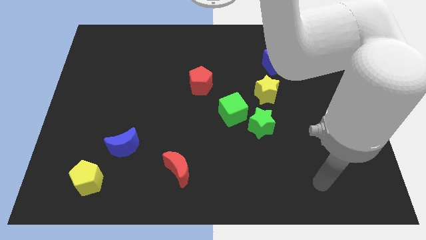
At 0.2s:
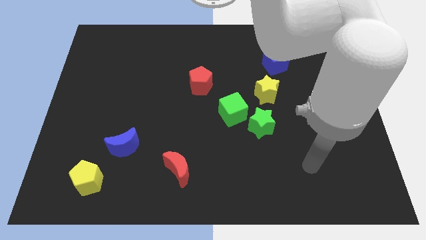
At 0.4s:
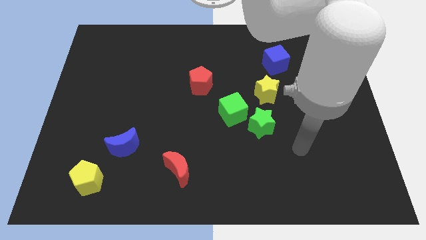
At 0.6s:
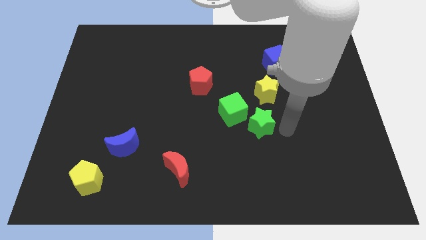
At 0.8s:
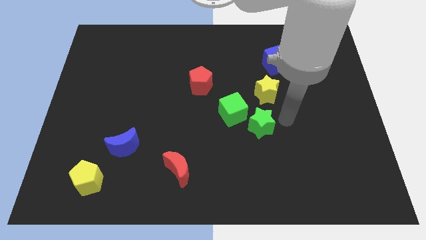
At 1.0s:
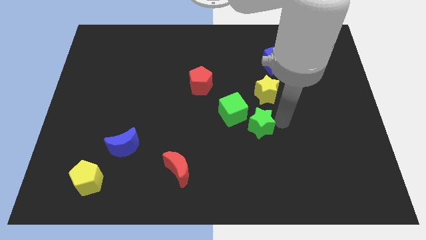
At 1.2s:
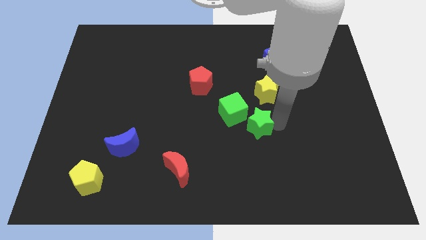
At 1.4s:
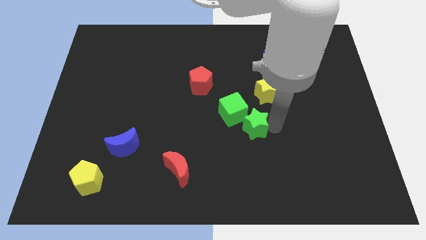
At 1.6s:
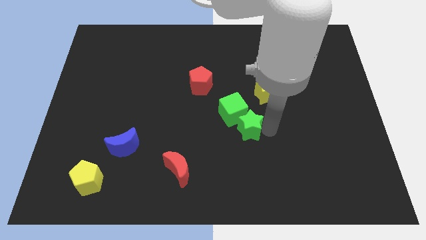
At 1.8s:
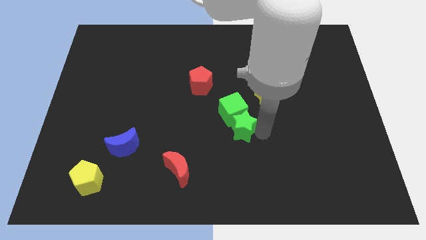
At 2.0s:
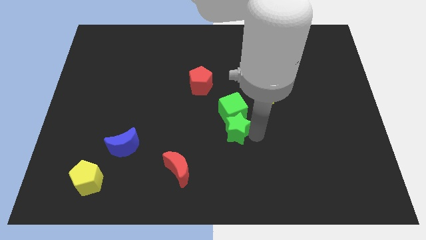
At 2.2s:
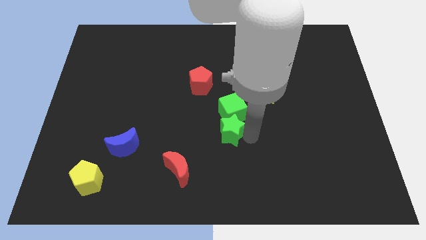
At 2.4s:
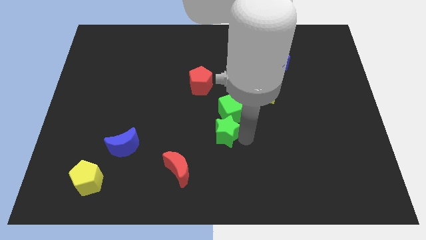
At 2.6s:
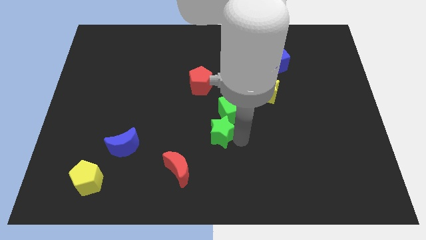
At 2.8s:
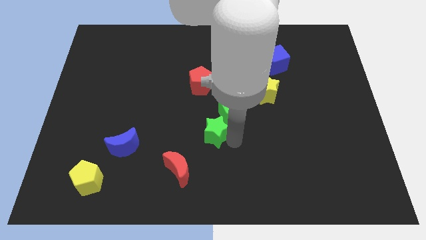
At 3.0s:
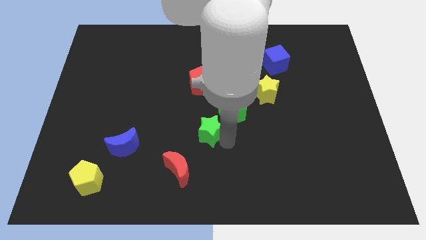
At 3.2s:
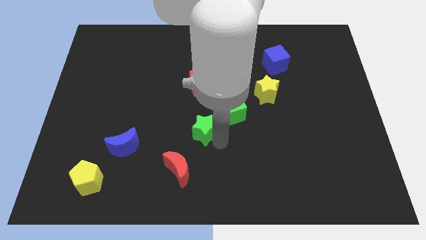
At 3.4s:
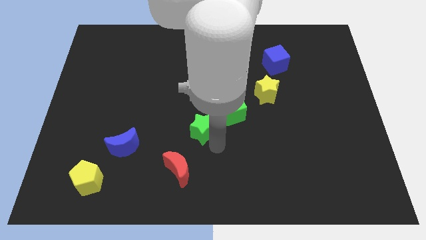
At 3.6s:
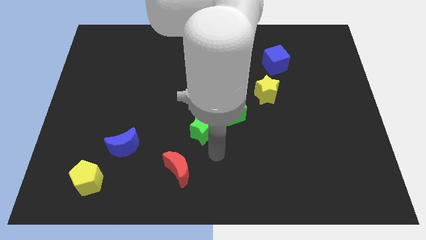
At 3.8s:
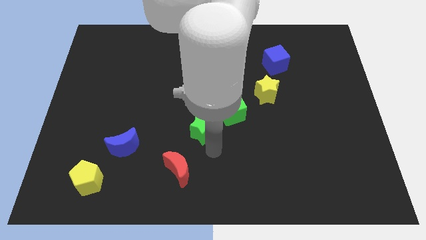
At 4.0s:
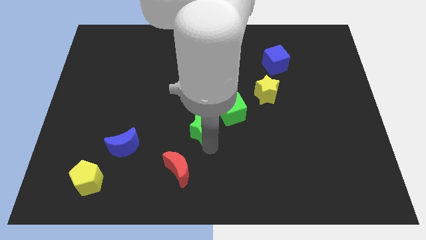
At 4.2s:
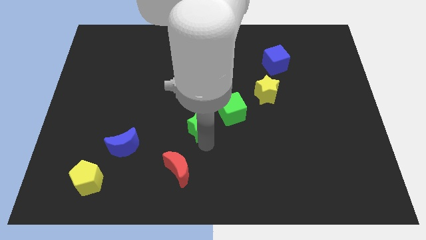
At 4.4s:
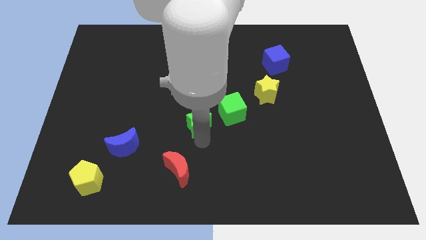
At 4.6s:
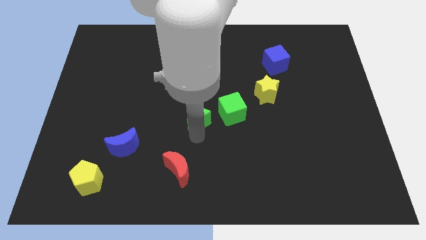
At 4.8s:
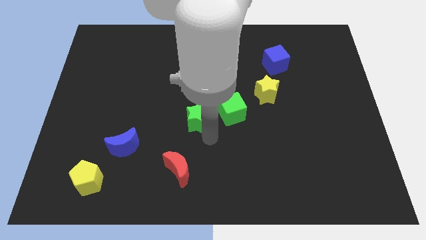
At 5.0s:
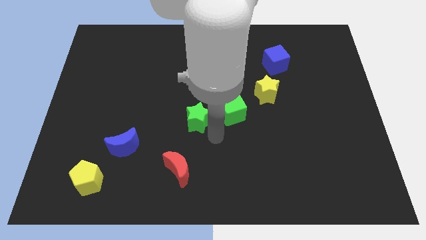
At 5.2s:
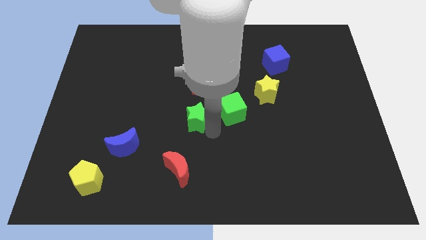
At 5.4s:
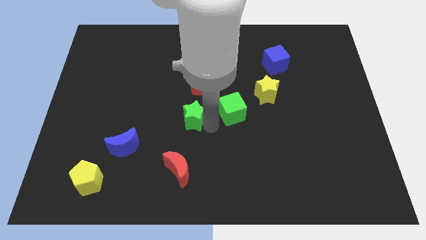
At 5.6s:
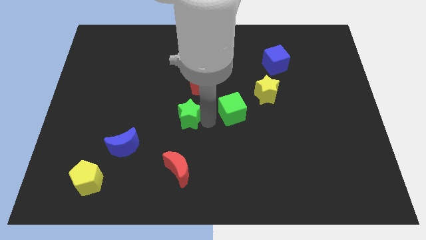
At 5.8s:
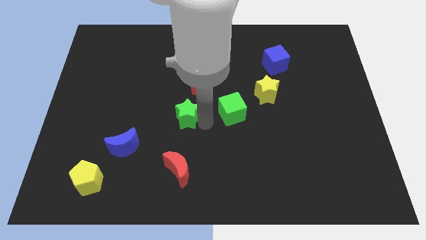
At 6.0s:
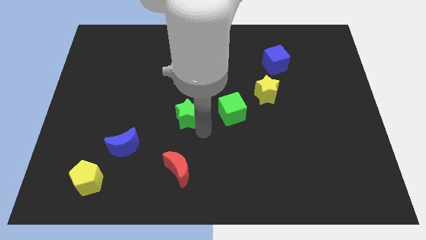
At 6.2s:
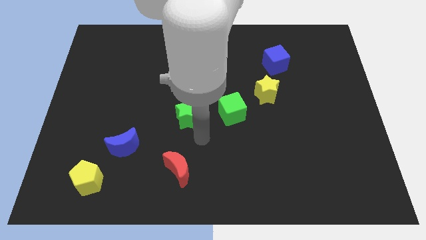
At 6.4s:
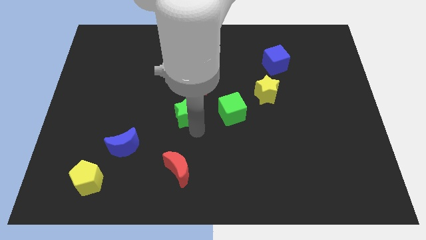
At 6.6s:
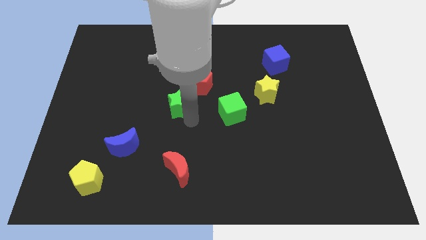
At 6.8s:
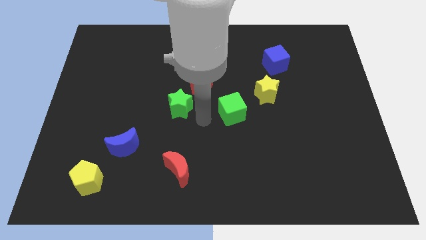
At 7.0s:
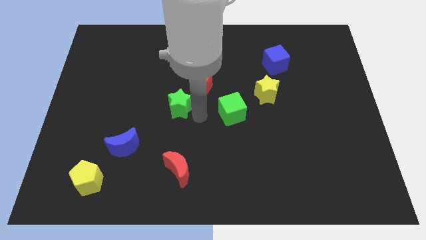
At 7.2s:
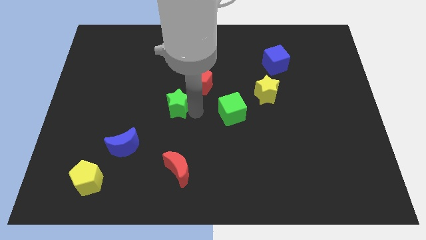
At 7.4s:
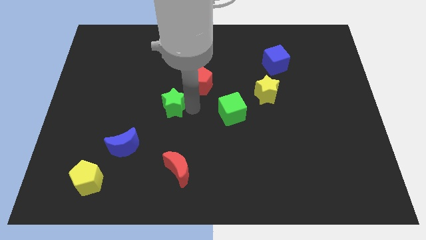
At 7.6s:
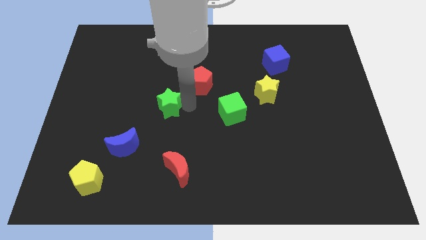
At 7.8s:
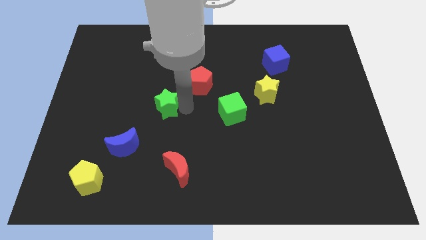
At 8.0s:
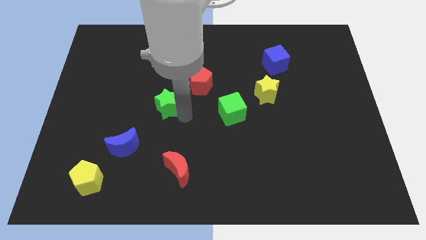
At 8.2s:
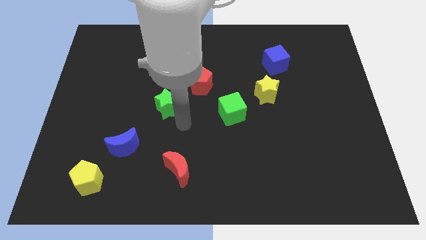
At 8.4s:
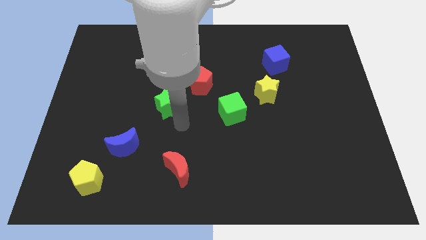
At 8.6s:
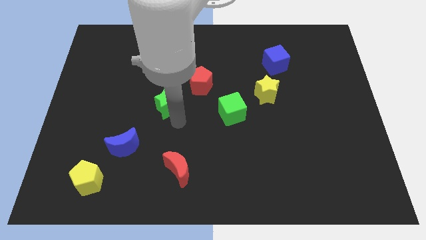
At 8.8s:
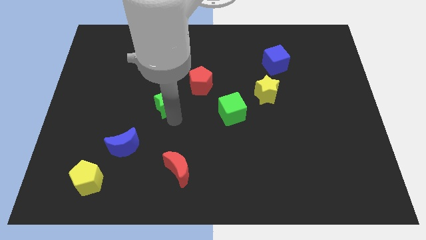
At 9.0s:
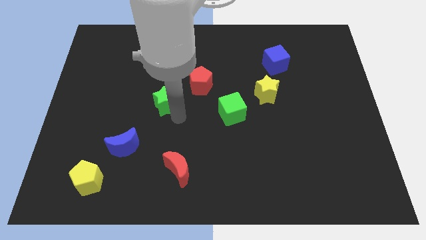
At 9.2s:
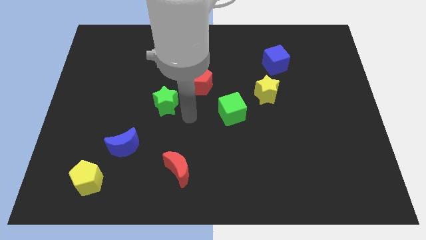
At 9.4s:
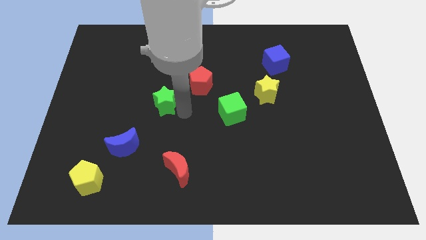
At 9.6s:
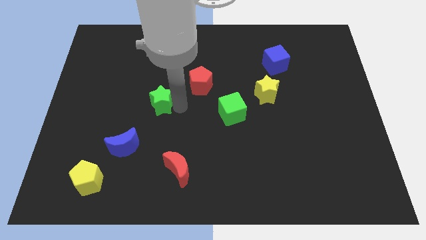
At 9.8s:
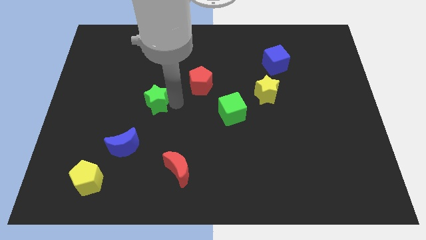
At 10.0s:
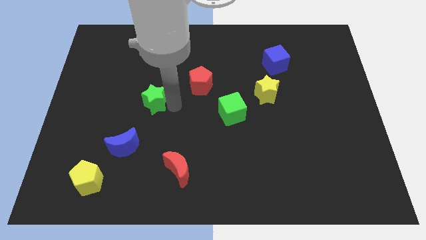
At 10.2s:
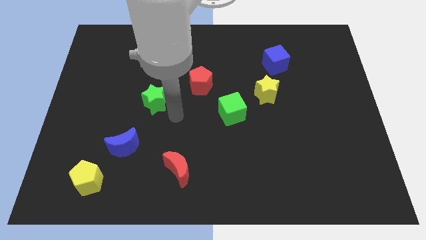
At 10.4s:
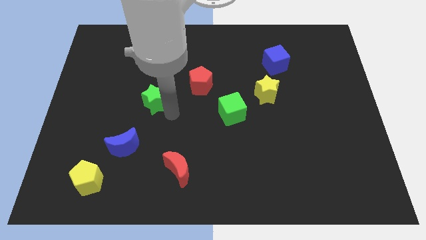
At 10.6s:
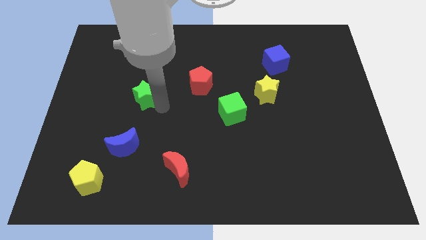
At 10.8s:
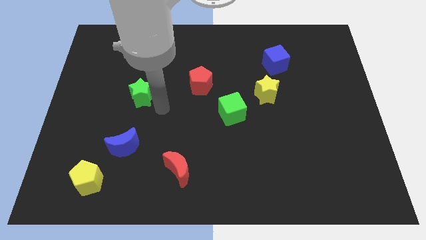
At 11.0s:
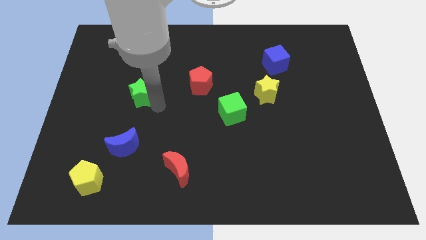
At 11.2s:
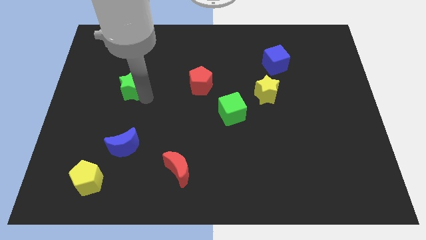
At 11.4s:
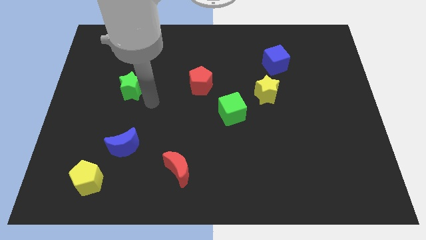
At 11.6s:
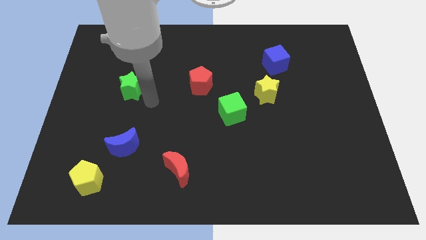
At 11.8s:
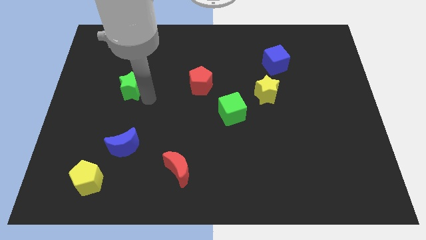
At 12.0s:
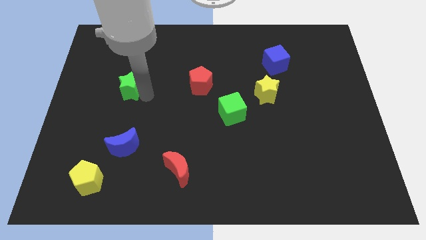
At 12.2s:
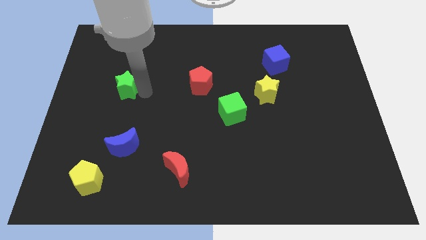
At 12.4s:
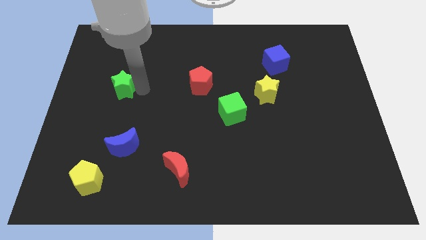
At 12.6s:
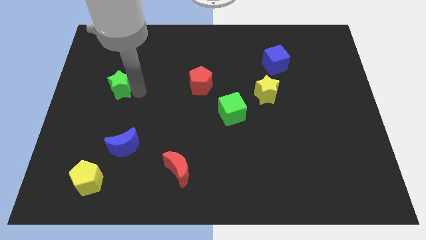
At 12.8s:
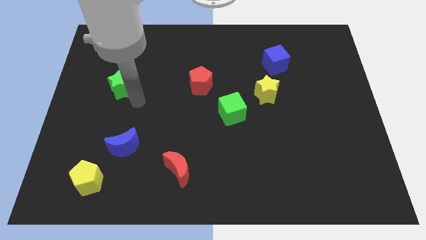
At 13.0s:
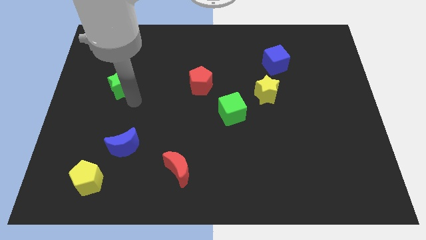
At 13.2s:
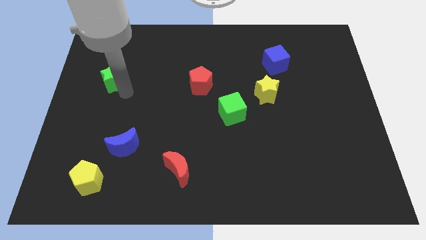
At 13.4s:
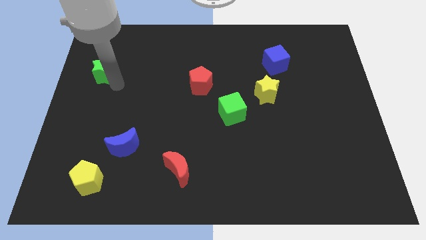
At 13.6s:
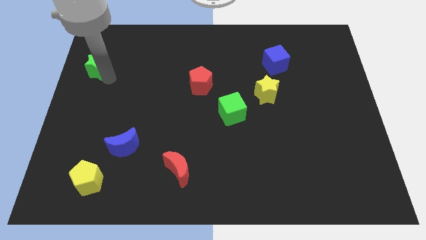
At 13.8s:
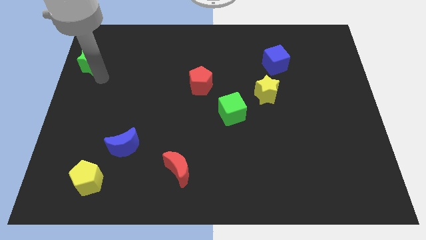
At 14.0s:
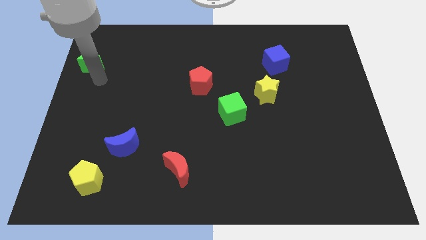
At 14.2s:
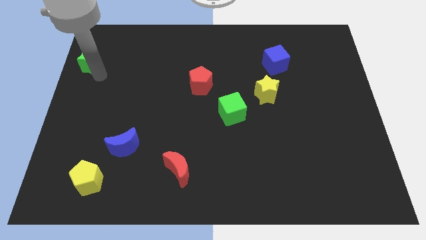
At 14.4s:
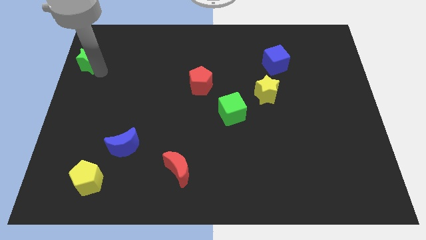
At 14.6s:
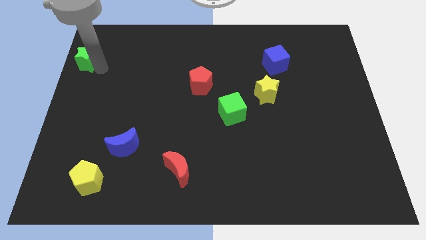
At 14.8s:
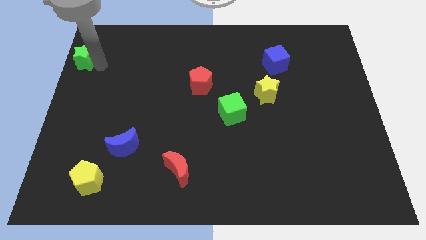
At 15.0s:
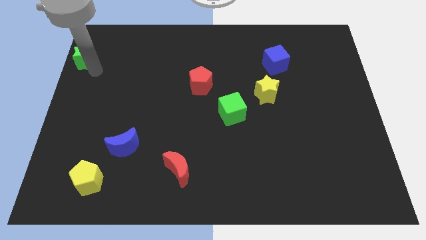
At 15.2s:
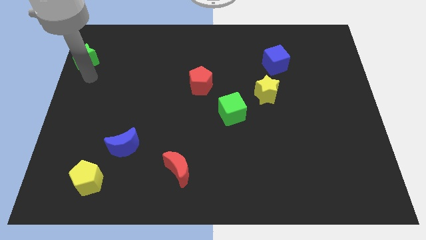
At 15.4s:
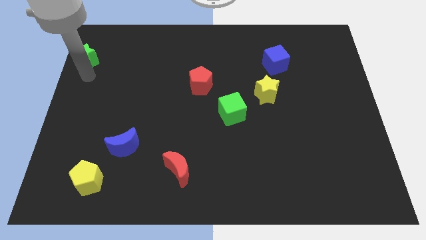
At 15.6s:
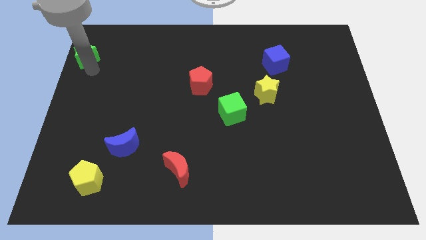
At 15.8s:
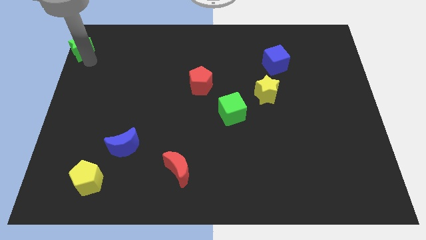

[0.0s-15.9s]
slide the green star to the top left corner
